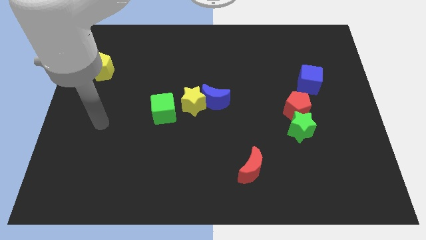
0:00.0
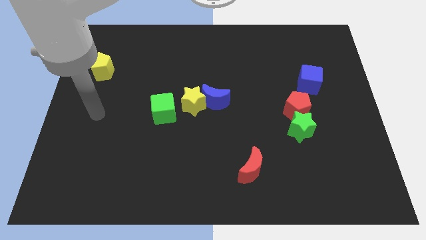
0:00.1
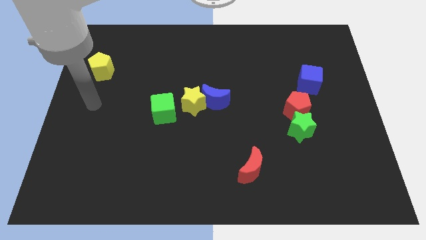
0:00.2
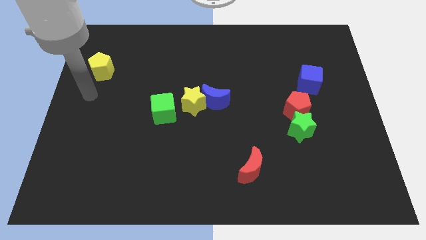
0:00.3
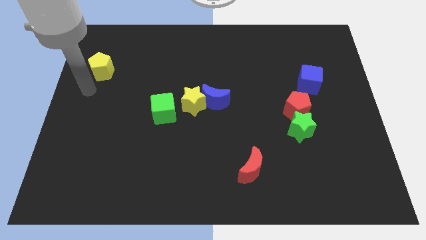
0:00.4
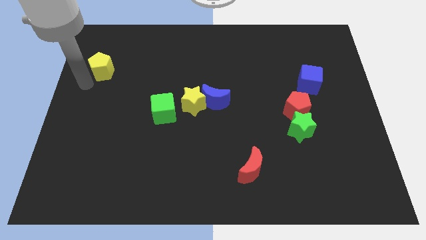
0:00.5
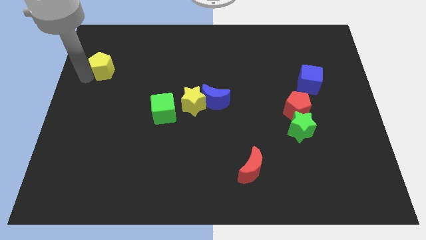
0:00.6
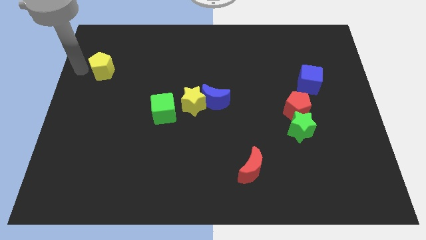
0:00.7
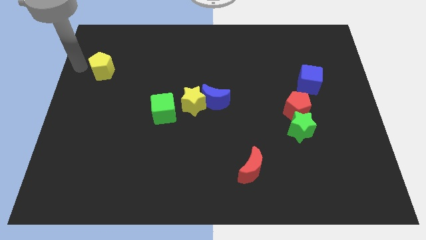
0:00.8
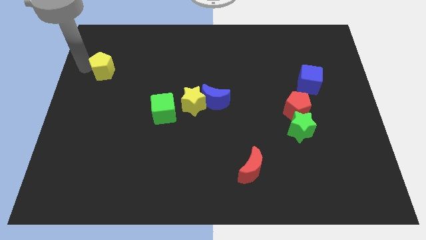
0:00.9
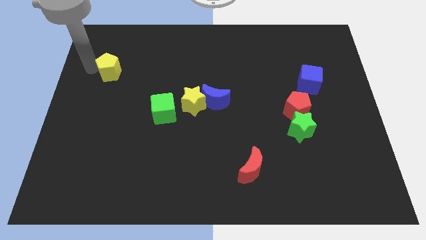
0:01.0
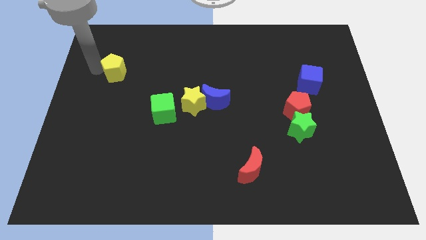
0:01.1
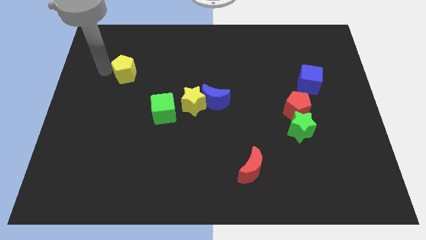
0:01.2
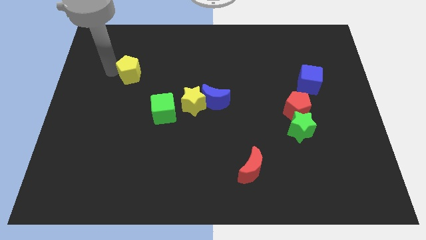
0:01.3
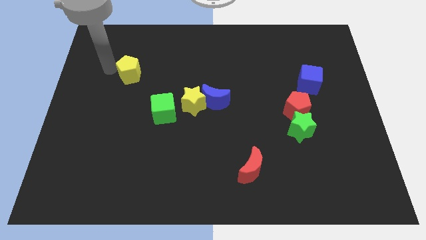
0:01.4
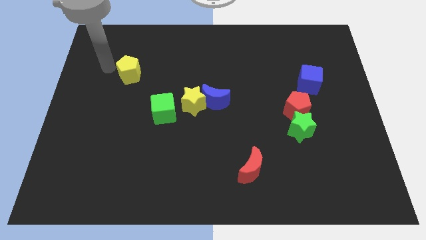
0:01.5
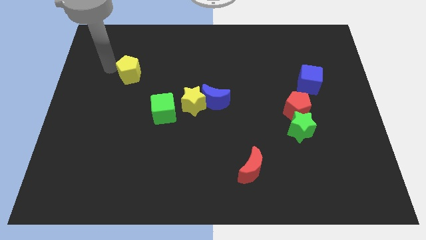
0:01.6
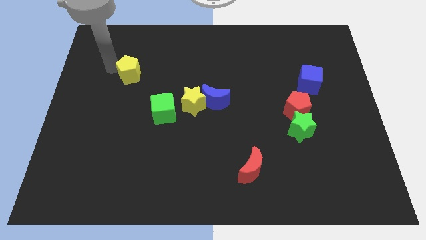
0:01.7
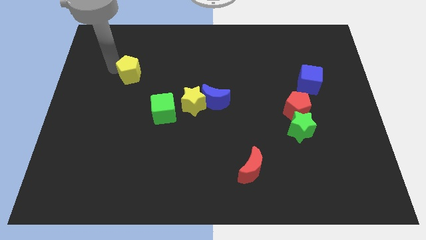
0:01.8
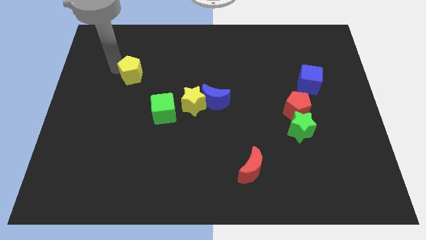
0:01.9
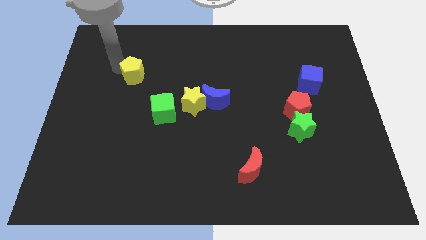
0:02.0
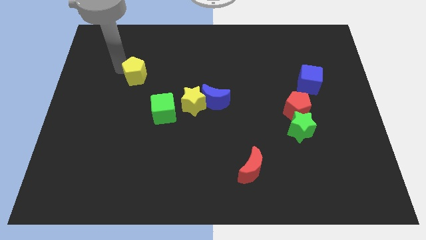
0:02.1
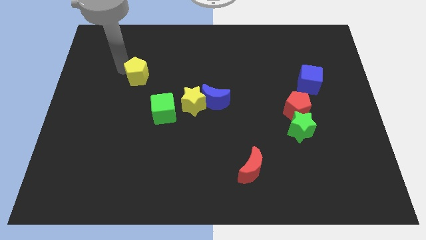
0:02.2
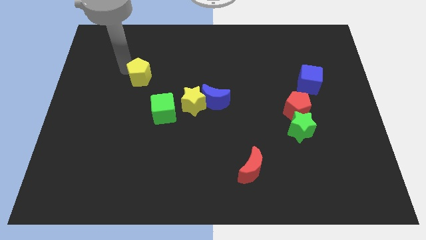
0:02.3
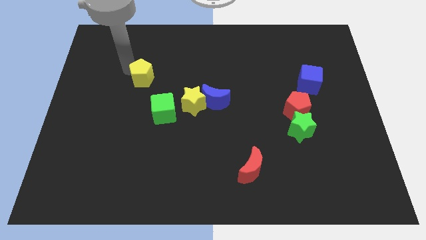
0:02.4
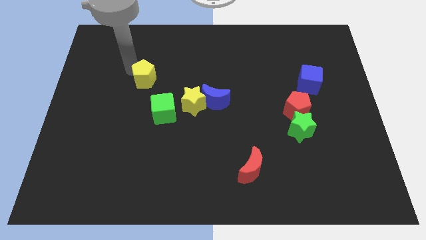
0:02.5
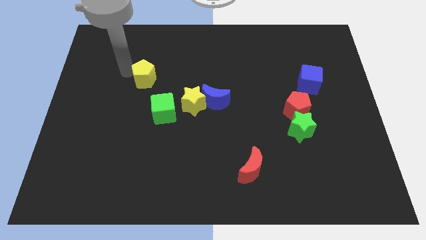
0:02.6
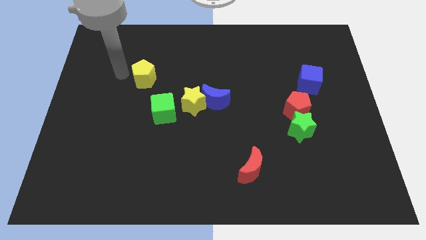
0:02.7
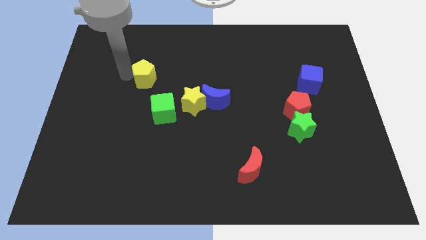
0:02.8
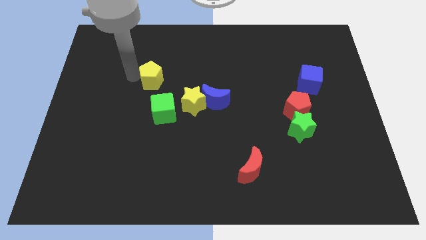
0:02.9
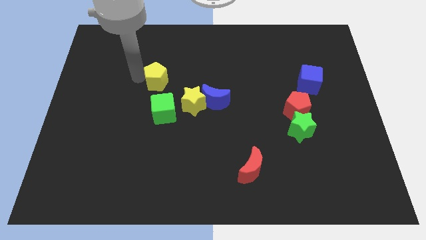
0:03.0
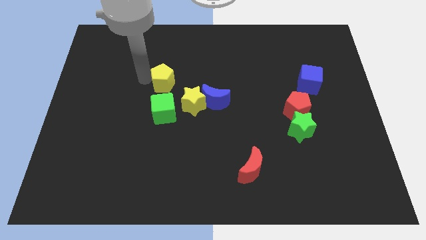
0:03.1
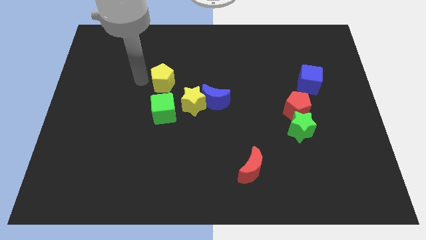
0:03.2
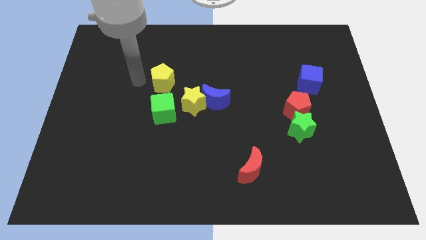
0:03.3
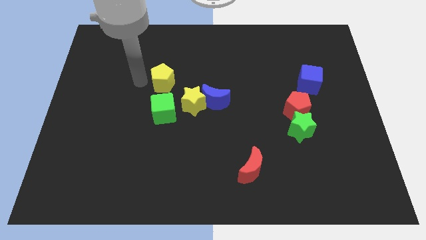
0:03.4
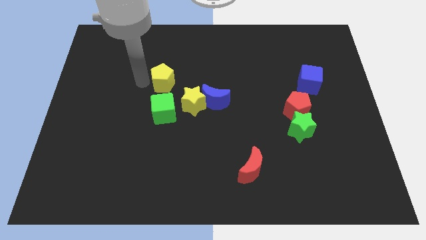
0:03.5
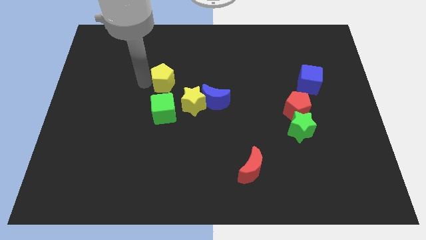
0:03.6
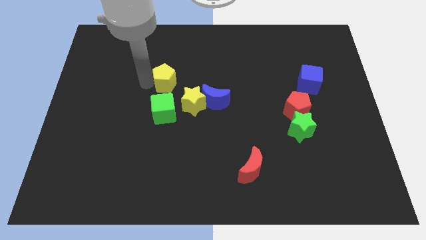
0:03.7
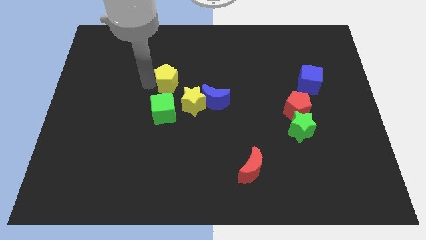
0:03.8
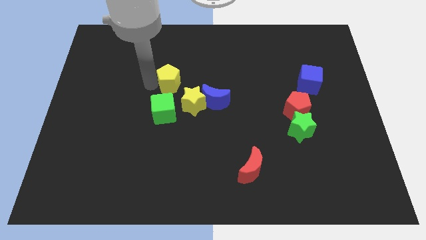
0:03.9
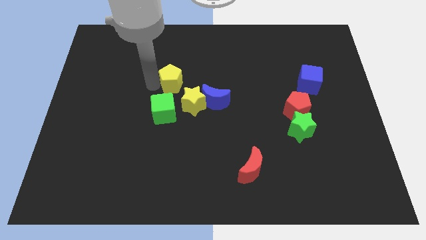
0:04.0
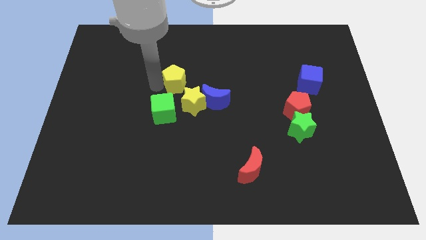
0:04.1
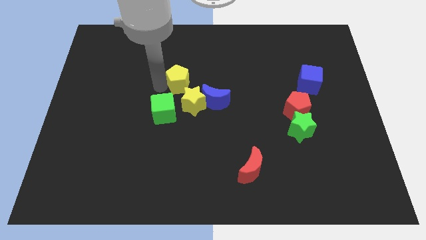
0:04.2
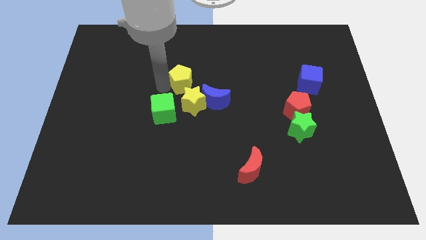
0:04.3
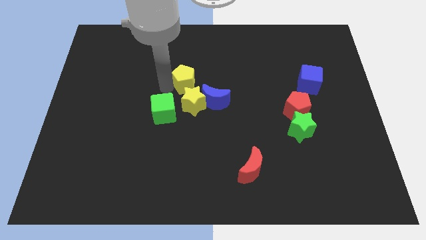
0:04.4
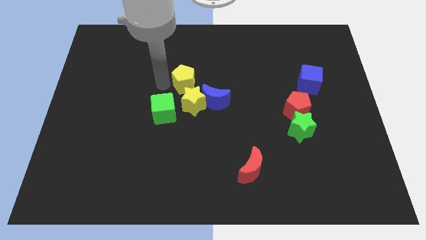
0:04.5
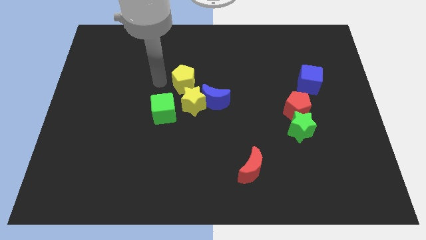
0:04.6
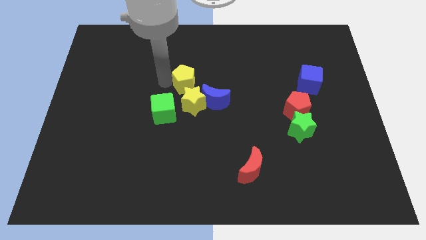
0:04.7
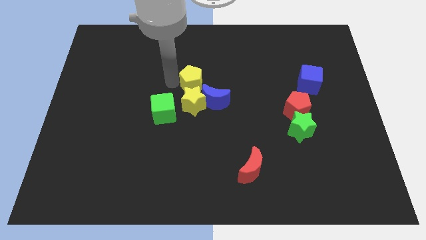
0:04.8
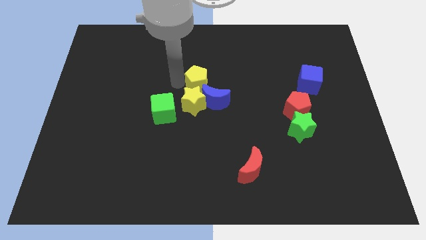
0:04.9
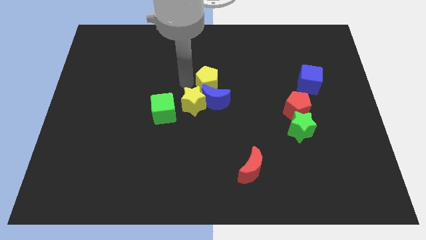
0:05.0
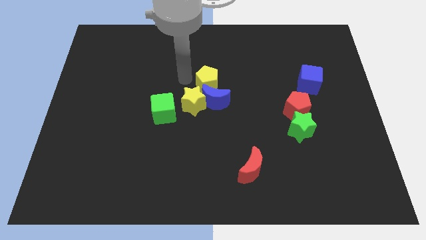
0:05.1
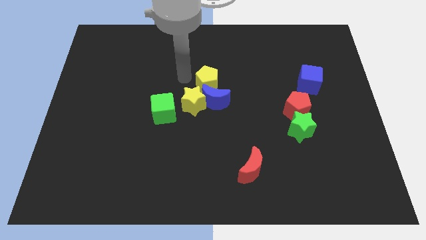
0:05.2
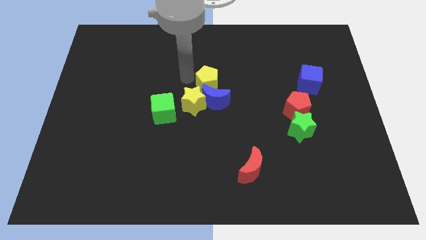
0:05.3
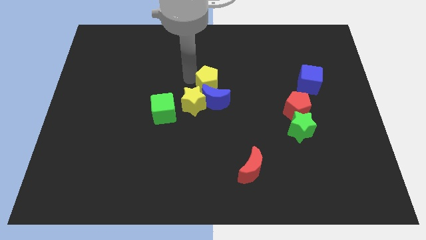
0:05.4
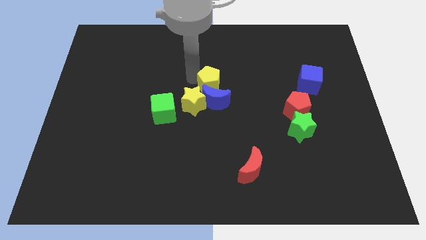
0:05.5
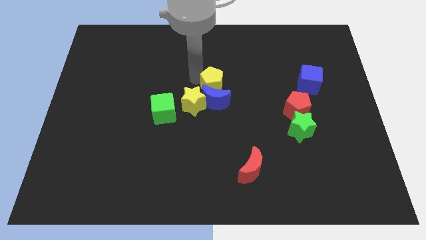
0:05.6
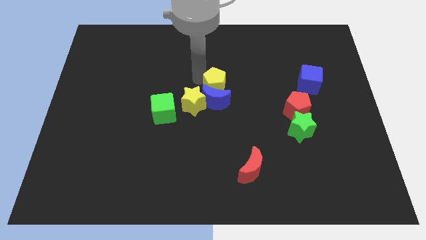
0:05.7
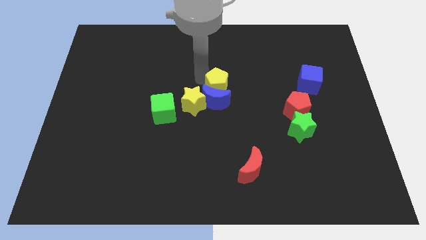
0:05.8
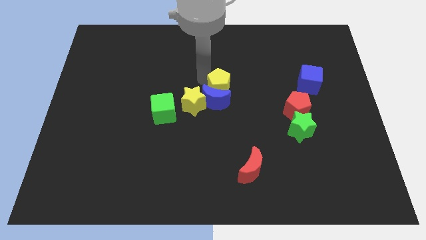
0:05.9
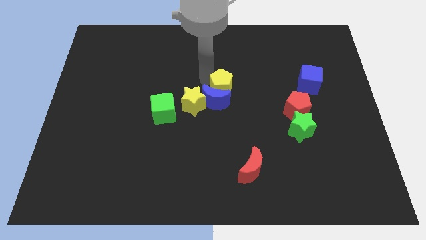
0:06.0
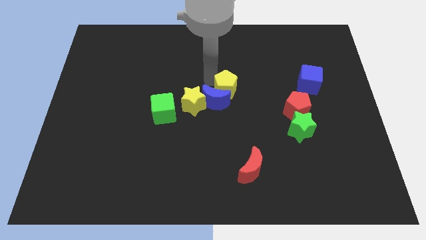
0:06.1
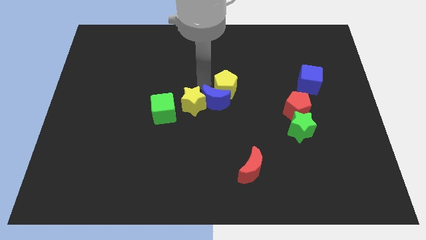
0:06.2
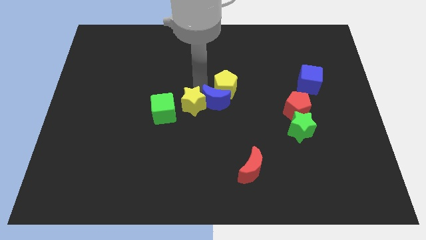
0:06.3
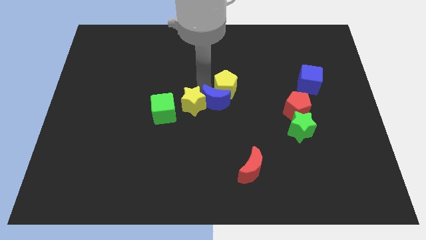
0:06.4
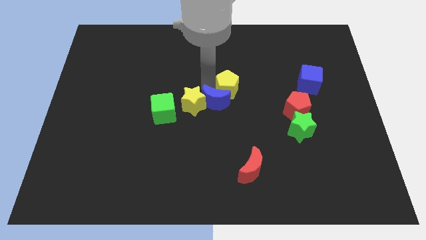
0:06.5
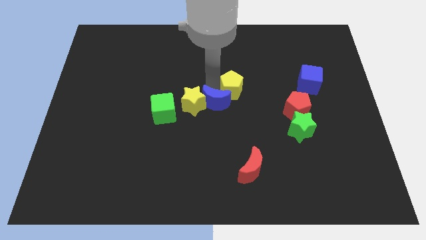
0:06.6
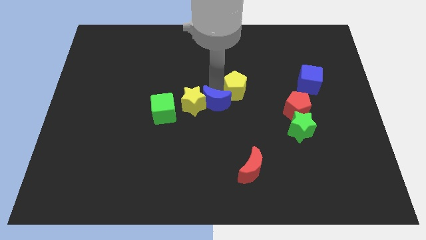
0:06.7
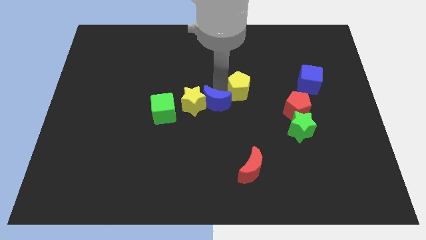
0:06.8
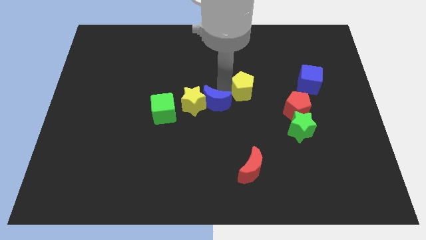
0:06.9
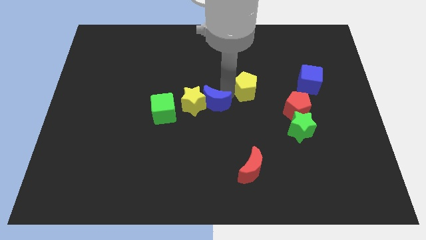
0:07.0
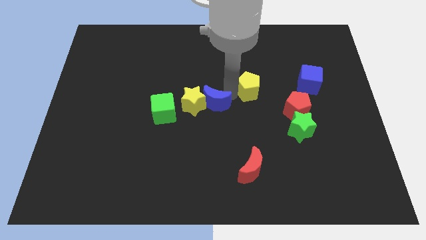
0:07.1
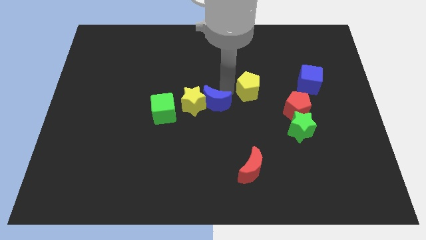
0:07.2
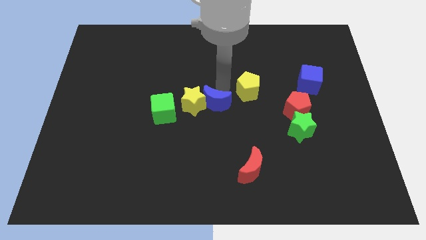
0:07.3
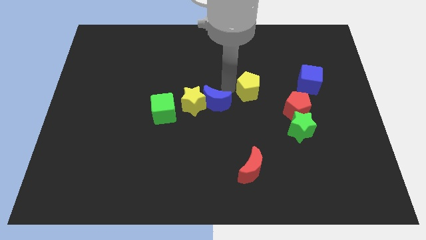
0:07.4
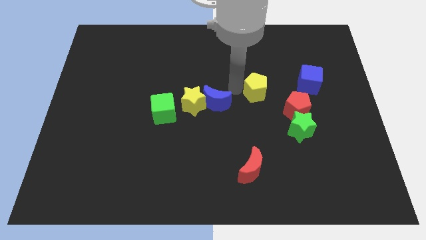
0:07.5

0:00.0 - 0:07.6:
put the yellow pentagon to the top left side of the red pentagon
